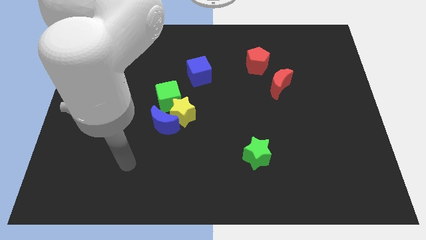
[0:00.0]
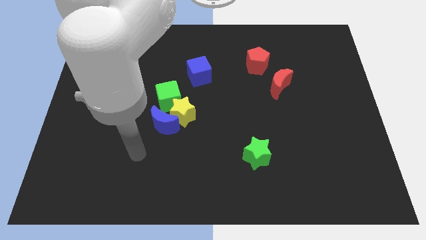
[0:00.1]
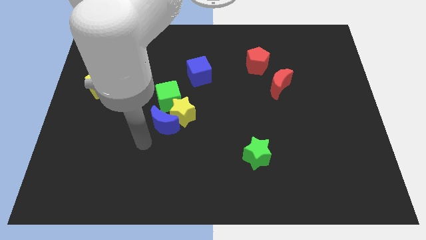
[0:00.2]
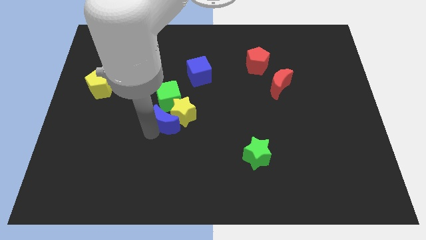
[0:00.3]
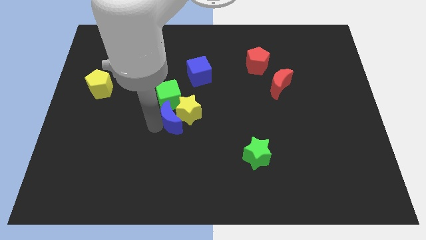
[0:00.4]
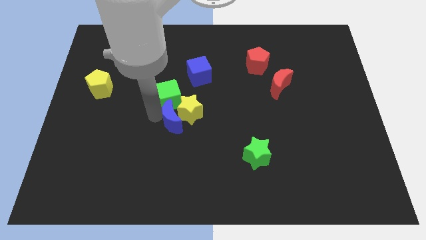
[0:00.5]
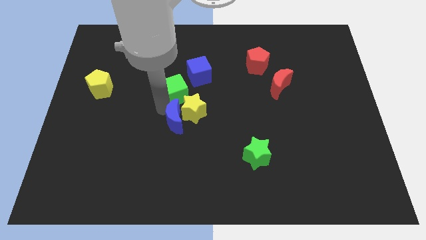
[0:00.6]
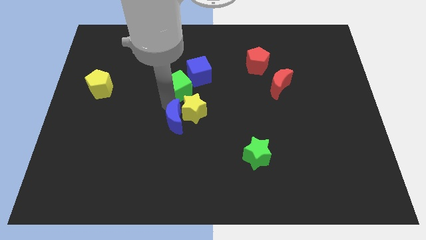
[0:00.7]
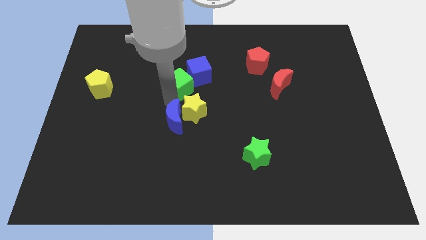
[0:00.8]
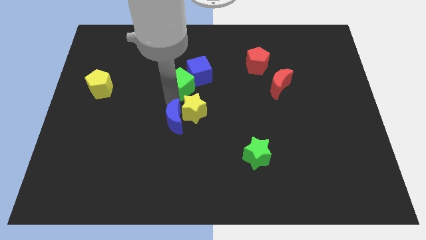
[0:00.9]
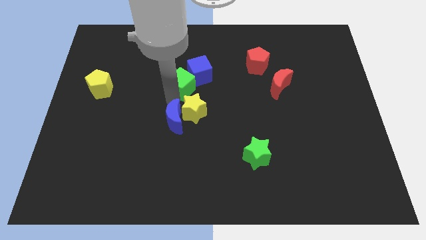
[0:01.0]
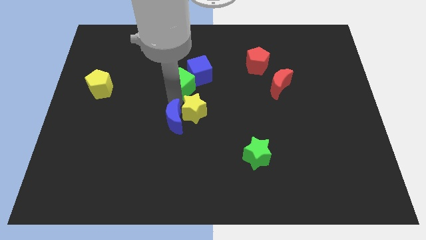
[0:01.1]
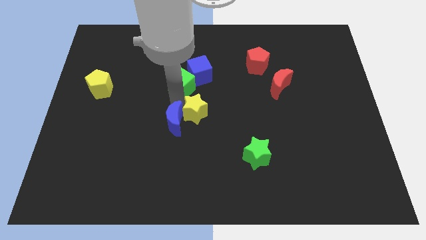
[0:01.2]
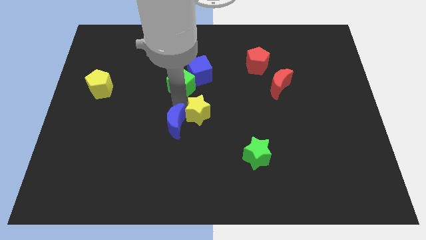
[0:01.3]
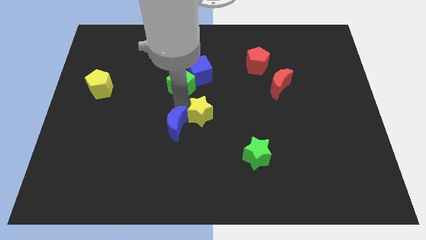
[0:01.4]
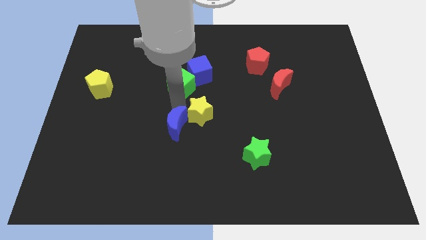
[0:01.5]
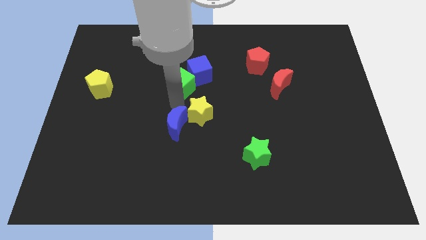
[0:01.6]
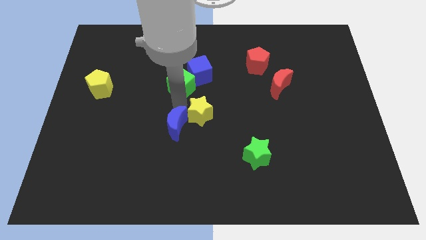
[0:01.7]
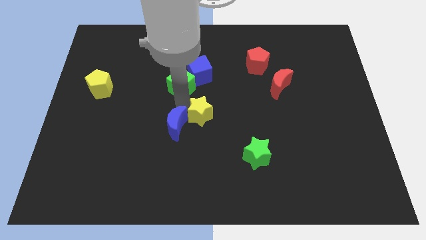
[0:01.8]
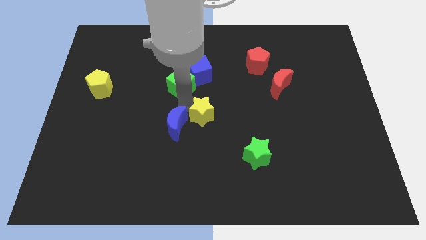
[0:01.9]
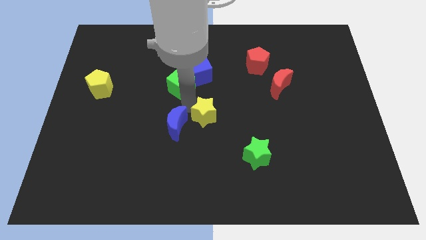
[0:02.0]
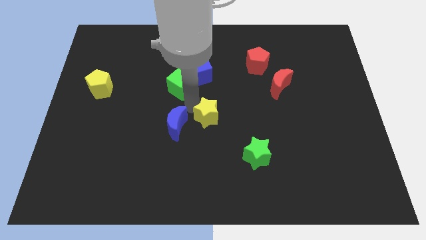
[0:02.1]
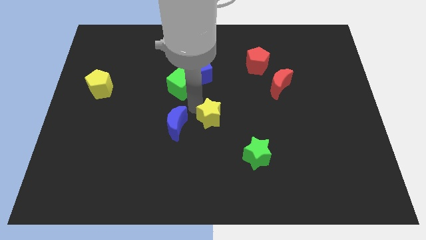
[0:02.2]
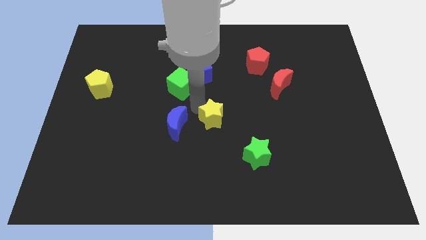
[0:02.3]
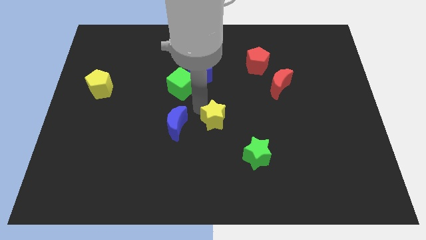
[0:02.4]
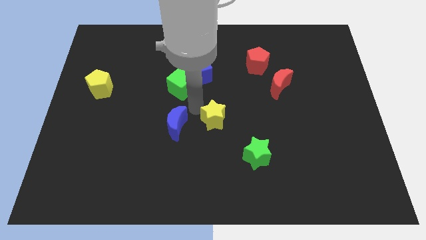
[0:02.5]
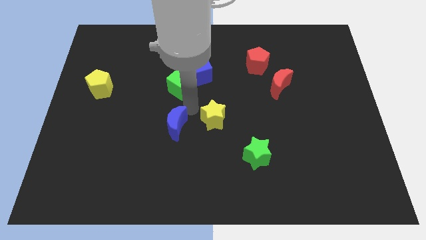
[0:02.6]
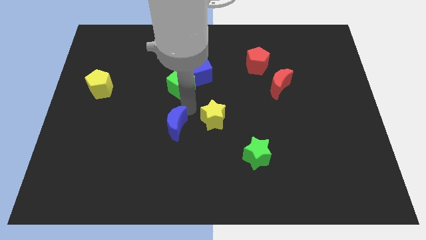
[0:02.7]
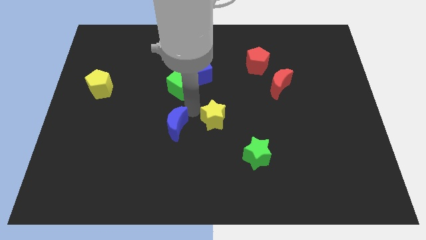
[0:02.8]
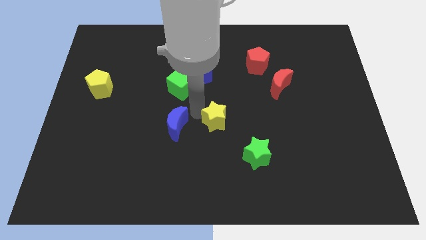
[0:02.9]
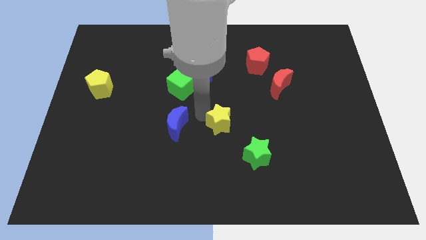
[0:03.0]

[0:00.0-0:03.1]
separate the yellow star from the blue moon and green cube

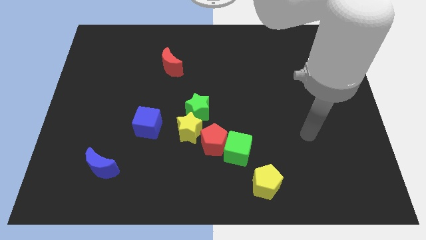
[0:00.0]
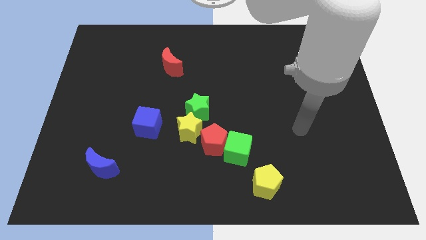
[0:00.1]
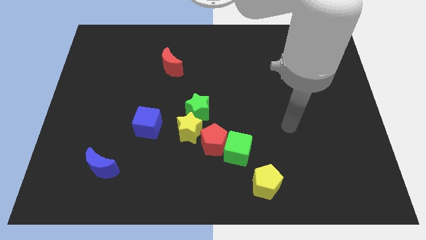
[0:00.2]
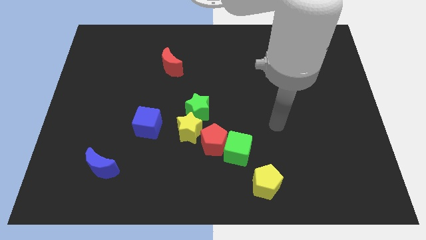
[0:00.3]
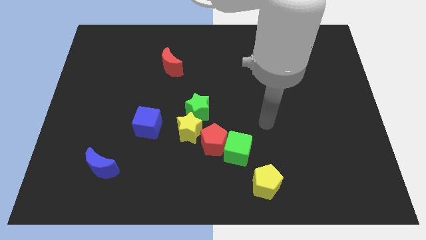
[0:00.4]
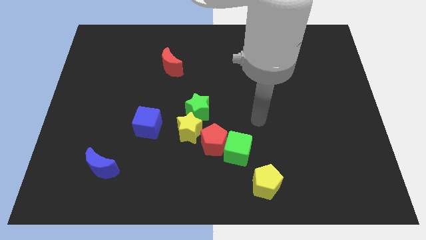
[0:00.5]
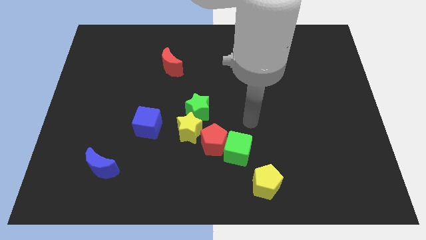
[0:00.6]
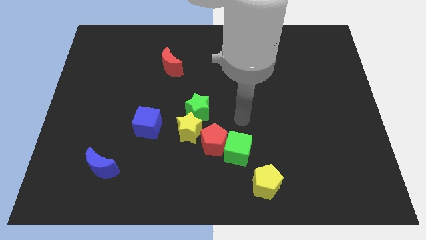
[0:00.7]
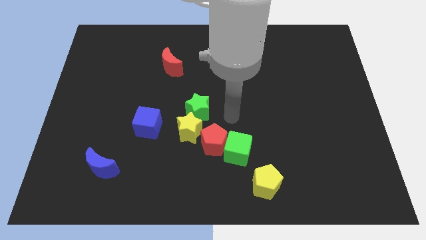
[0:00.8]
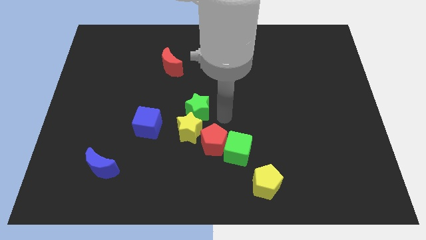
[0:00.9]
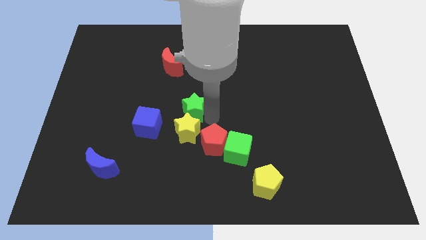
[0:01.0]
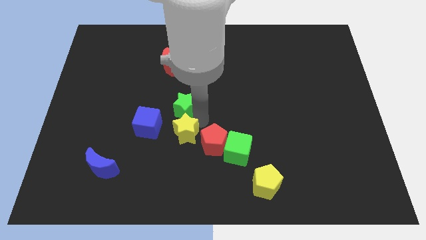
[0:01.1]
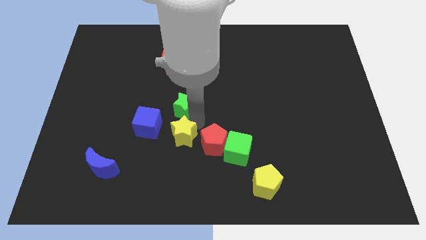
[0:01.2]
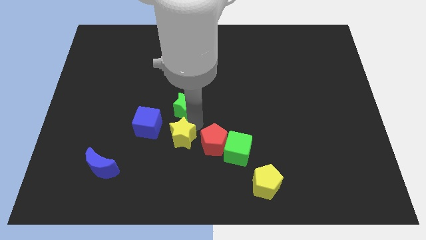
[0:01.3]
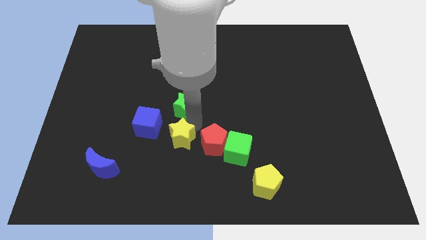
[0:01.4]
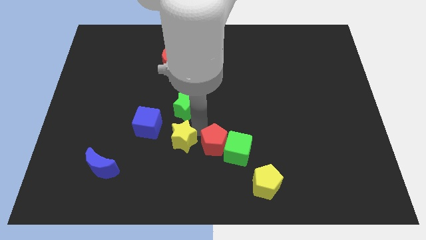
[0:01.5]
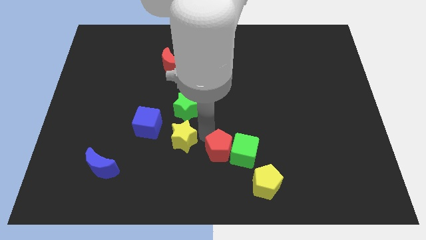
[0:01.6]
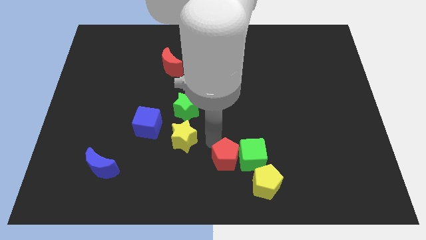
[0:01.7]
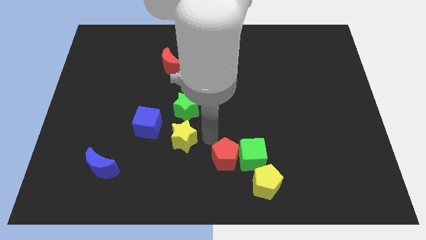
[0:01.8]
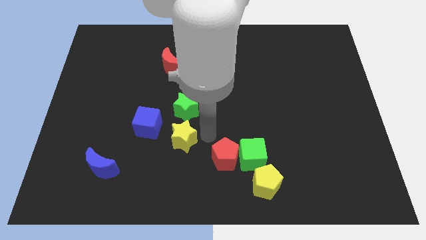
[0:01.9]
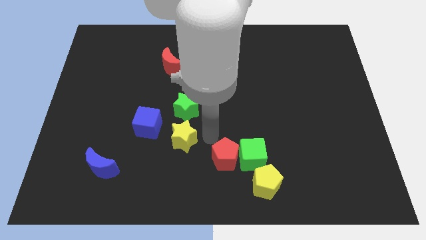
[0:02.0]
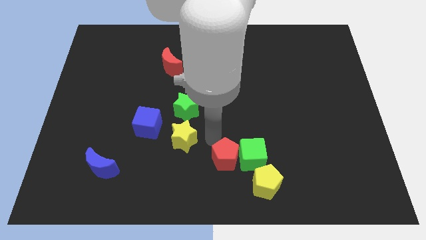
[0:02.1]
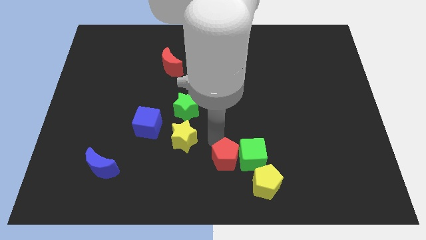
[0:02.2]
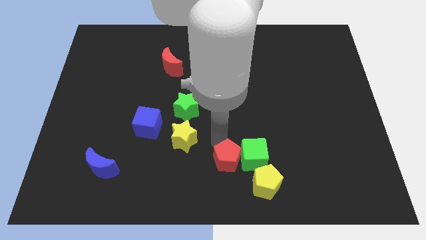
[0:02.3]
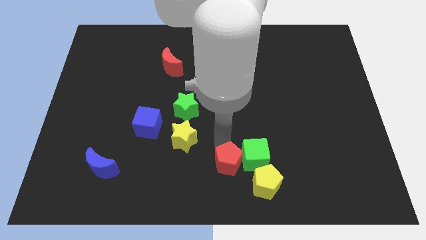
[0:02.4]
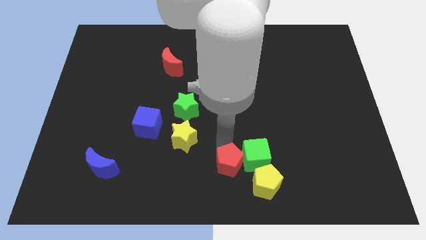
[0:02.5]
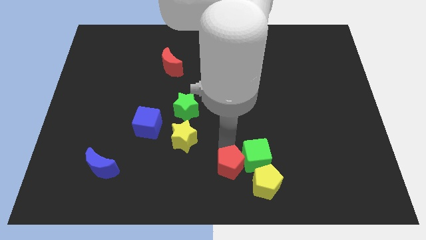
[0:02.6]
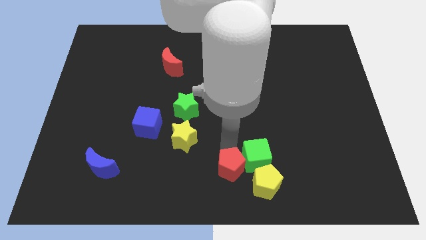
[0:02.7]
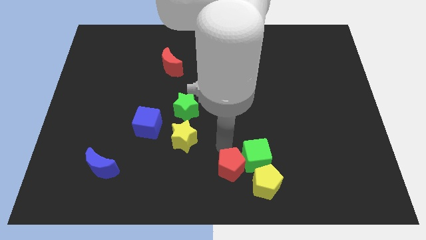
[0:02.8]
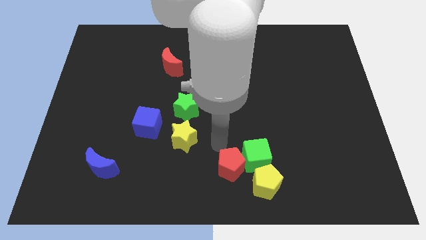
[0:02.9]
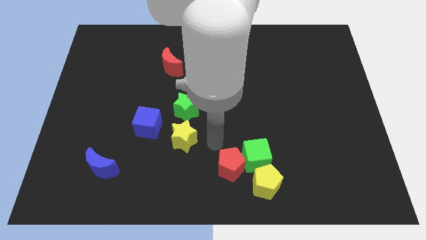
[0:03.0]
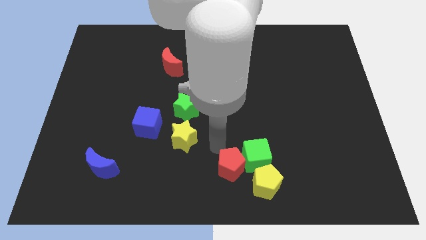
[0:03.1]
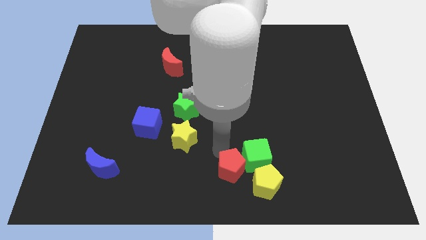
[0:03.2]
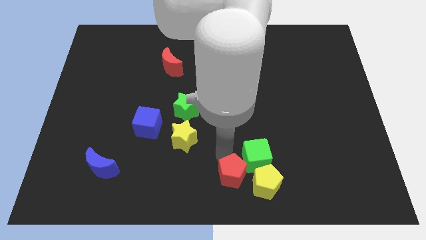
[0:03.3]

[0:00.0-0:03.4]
separate the red pentagon from the clump

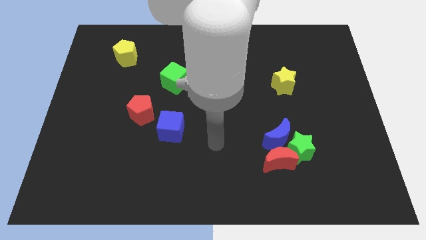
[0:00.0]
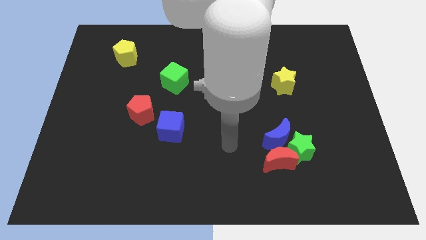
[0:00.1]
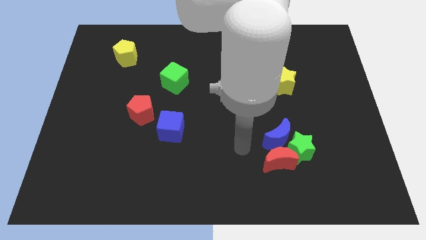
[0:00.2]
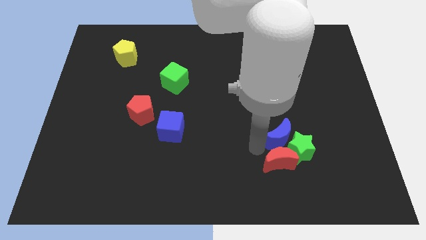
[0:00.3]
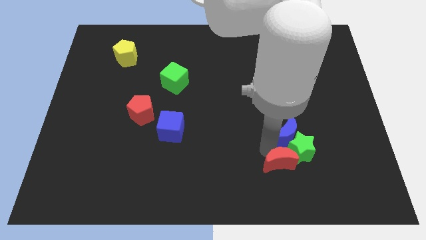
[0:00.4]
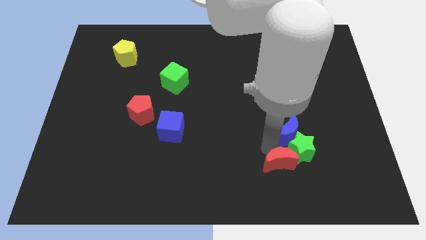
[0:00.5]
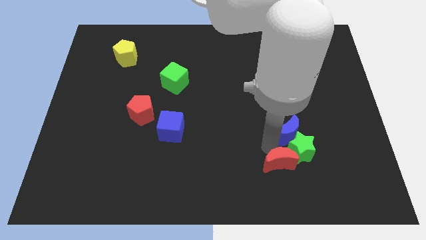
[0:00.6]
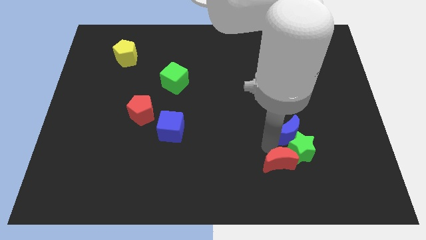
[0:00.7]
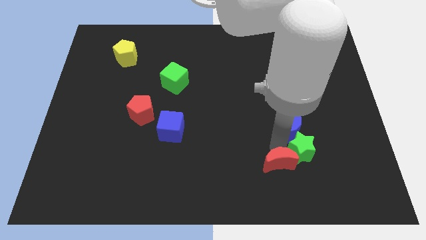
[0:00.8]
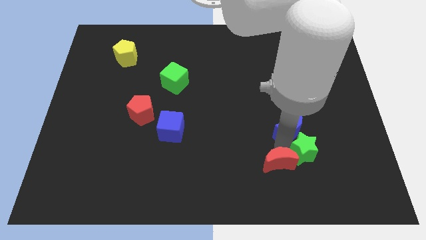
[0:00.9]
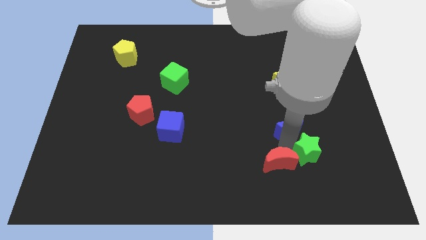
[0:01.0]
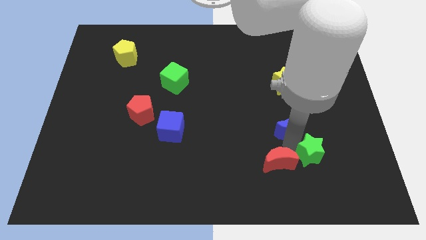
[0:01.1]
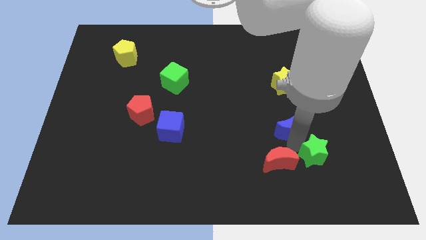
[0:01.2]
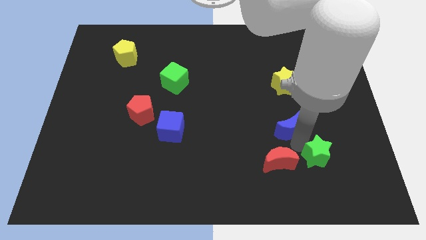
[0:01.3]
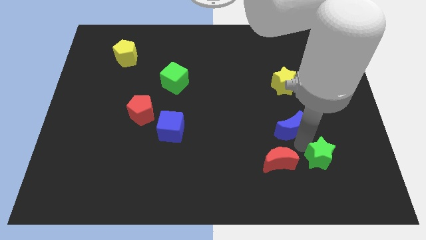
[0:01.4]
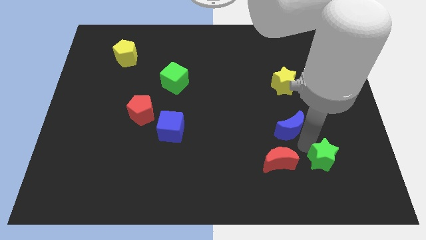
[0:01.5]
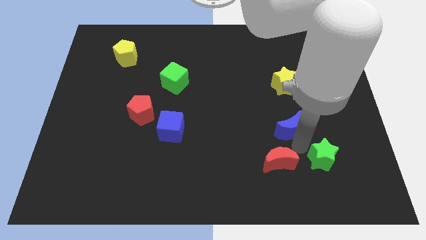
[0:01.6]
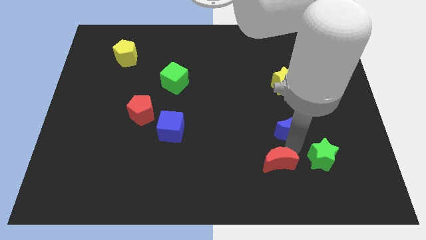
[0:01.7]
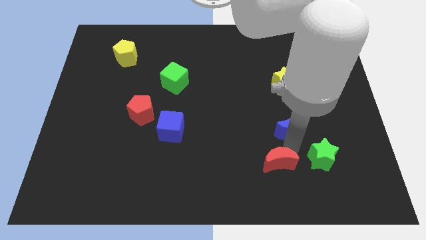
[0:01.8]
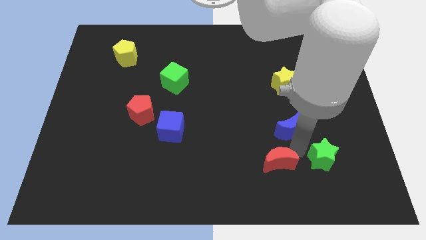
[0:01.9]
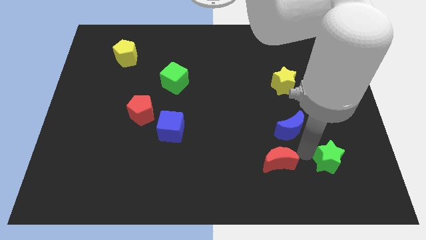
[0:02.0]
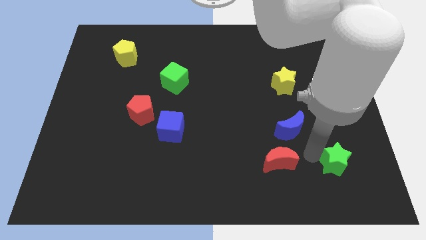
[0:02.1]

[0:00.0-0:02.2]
pull the green star apart from the blue moon and red moon

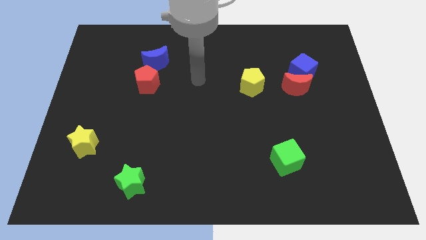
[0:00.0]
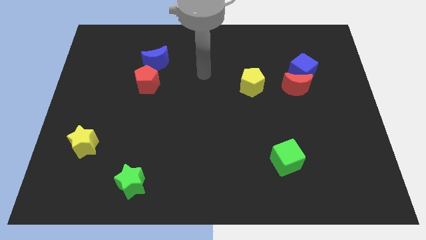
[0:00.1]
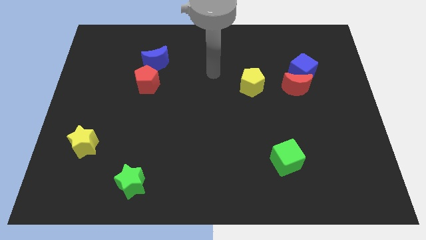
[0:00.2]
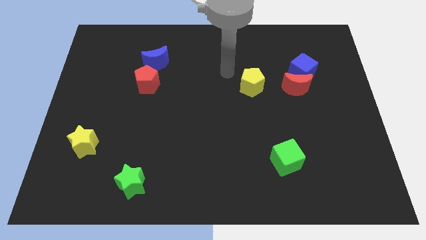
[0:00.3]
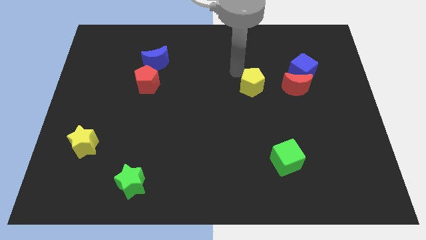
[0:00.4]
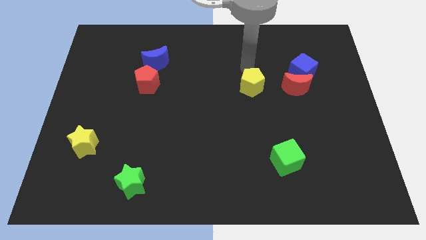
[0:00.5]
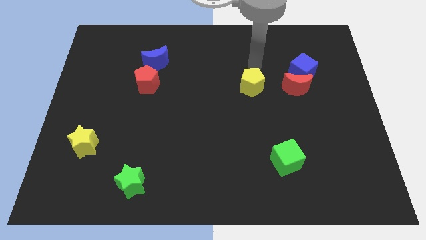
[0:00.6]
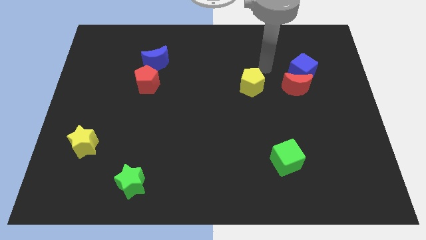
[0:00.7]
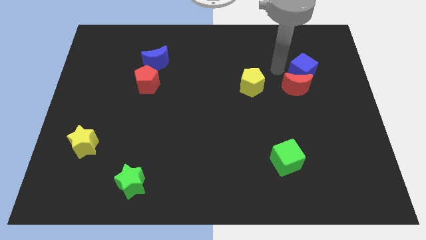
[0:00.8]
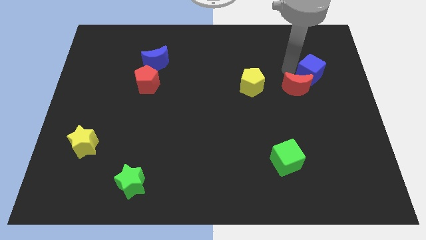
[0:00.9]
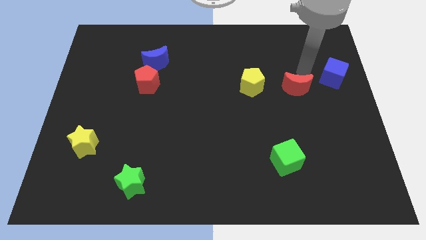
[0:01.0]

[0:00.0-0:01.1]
separate the red moon from the blue cube
